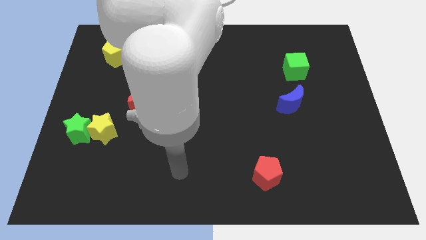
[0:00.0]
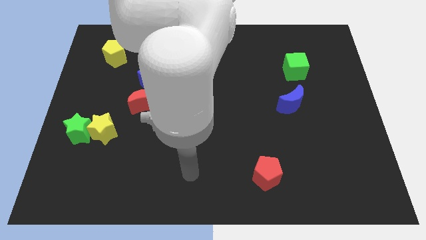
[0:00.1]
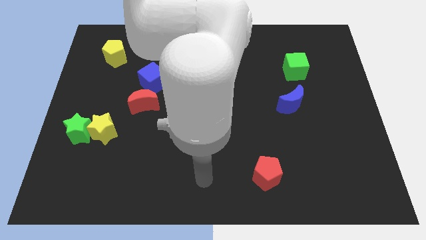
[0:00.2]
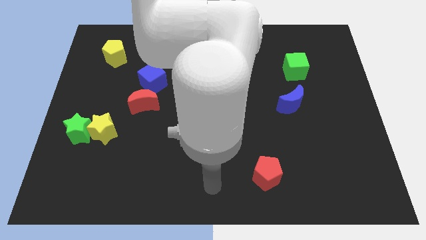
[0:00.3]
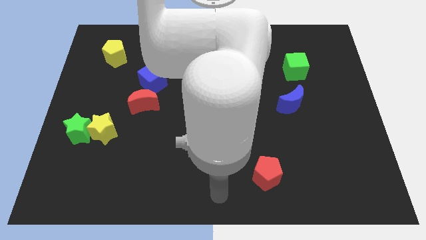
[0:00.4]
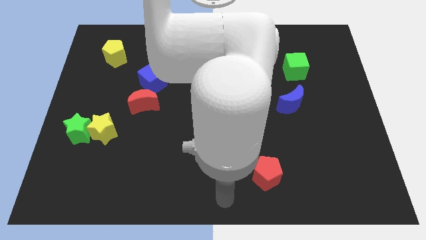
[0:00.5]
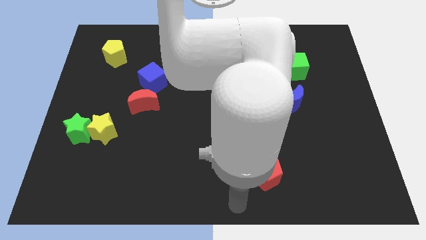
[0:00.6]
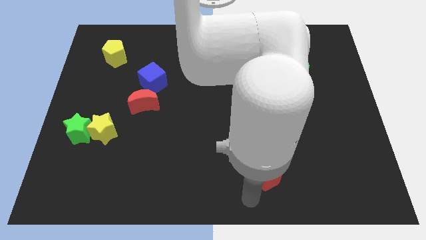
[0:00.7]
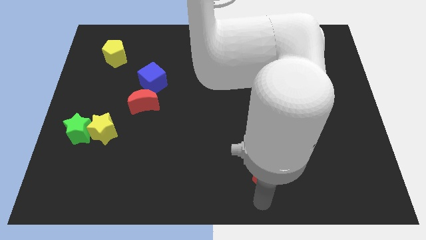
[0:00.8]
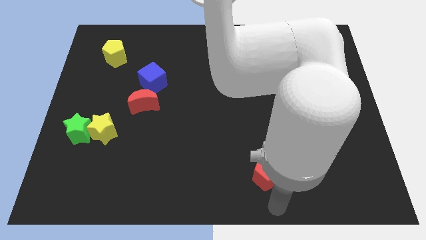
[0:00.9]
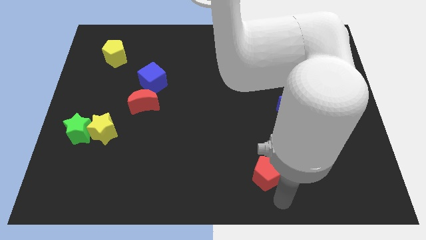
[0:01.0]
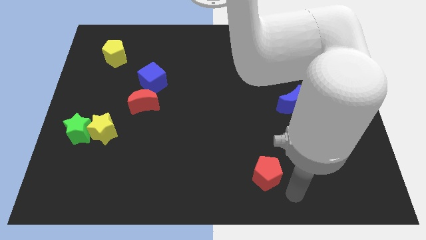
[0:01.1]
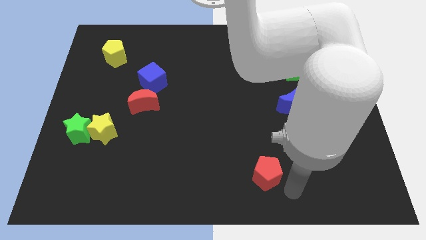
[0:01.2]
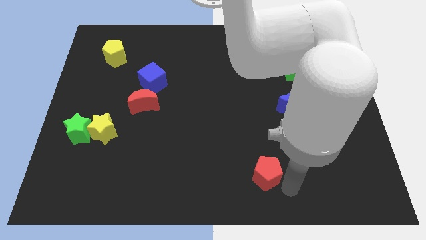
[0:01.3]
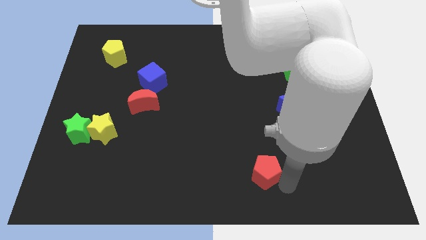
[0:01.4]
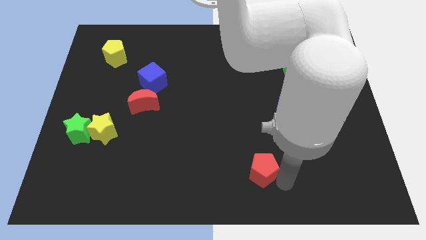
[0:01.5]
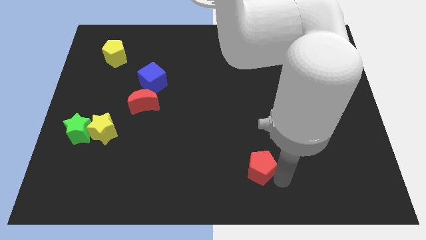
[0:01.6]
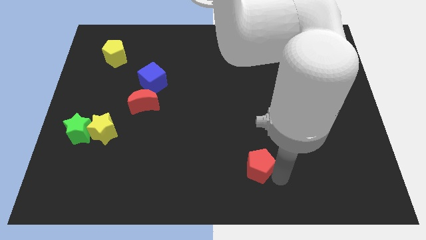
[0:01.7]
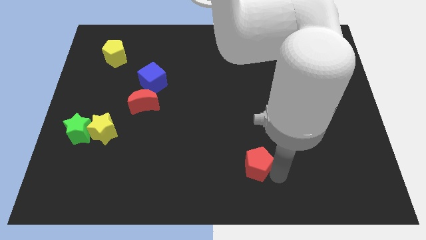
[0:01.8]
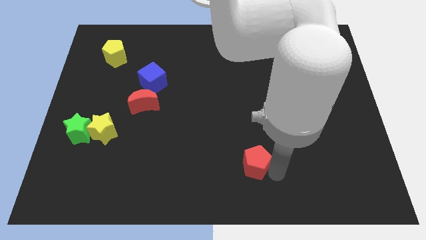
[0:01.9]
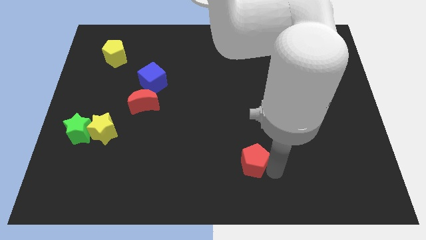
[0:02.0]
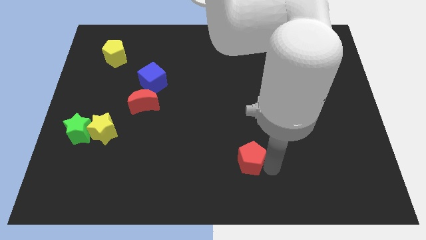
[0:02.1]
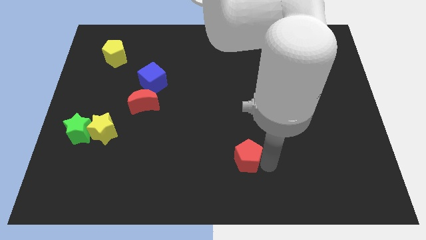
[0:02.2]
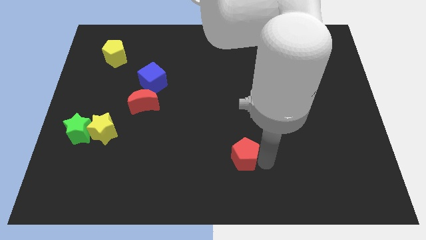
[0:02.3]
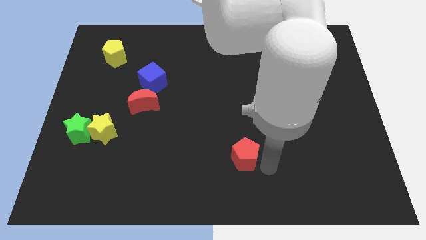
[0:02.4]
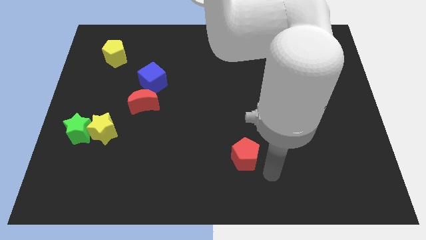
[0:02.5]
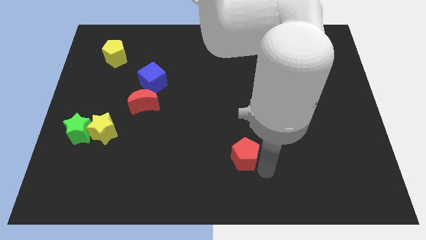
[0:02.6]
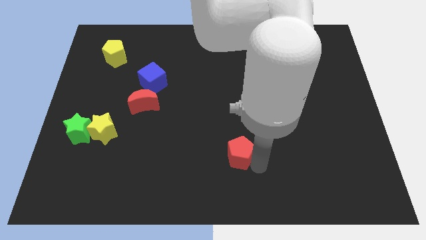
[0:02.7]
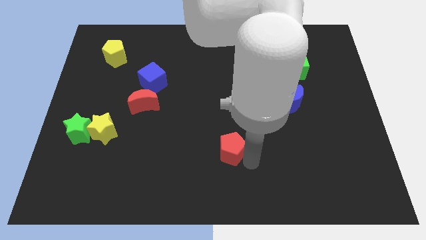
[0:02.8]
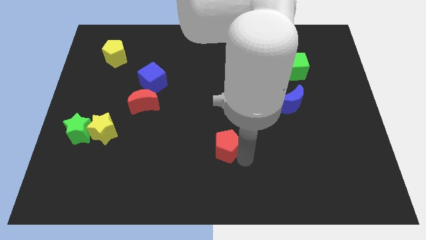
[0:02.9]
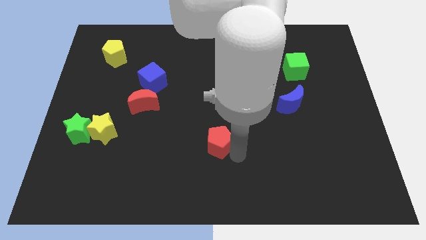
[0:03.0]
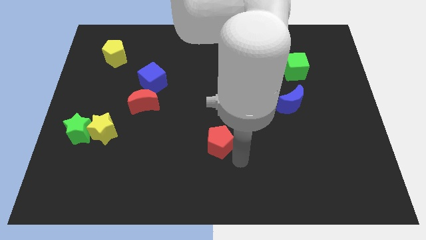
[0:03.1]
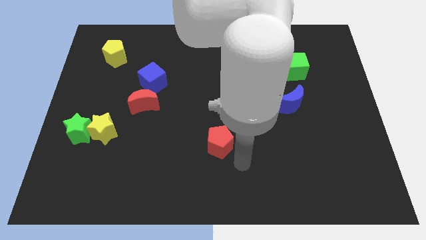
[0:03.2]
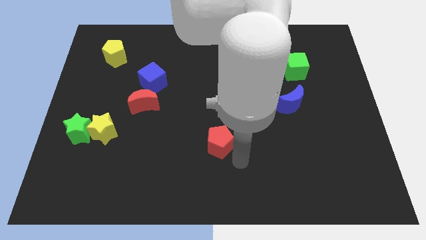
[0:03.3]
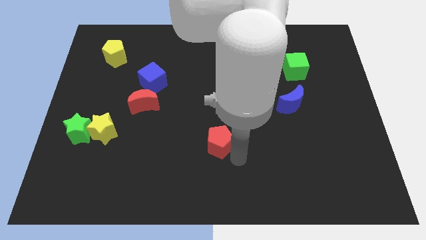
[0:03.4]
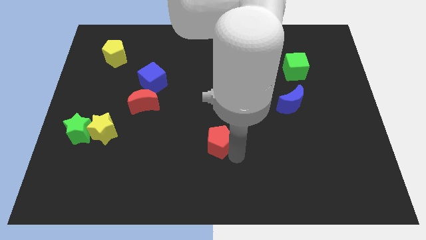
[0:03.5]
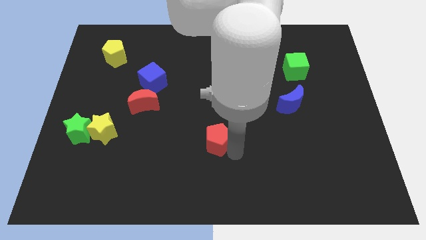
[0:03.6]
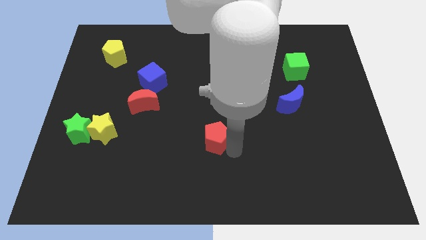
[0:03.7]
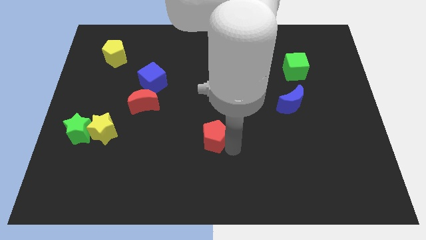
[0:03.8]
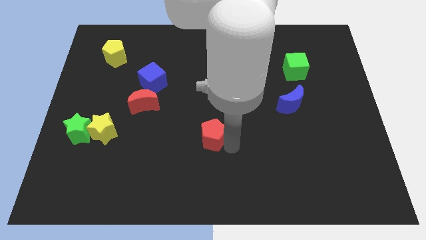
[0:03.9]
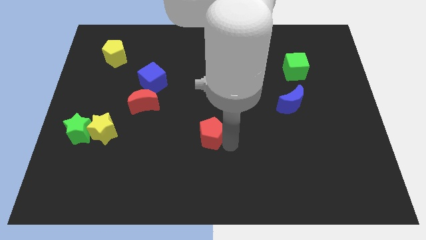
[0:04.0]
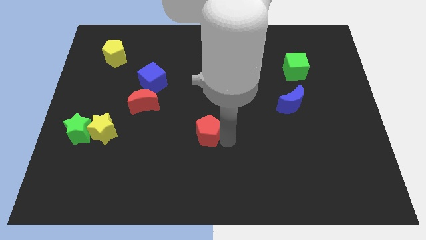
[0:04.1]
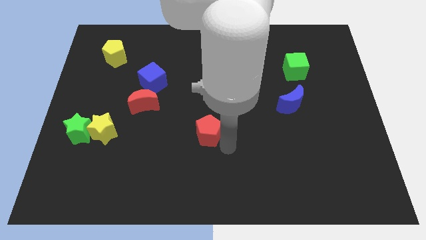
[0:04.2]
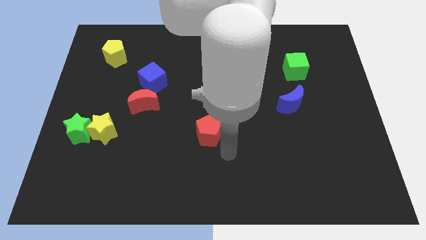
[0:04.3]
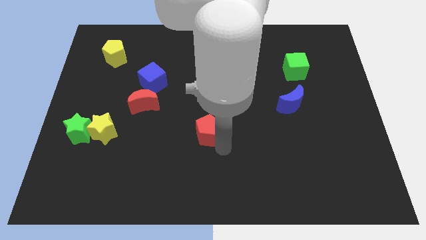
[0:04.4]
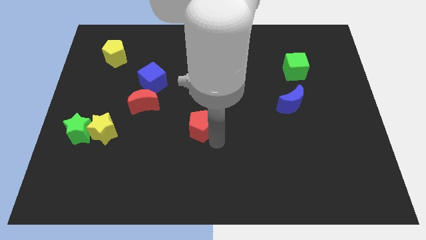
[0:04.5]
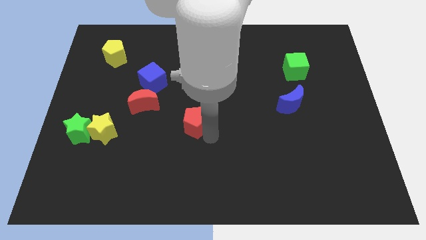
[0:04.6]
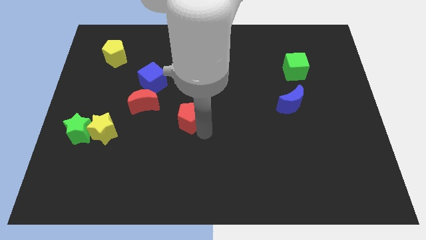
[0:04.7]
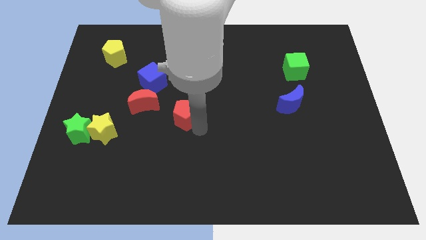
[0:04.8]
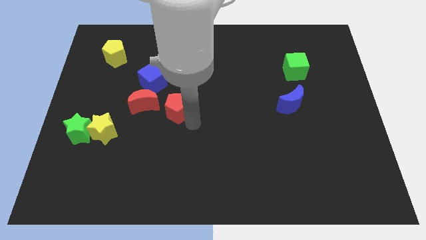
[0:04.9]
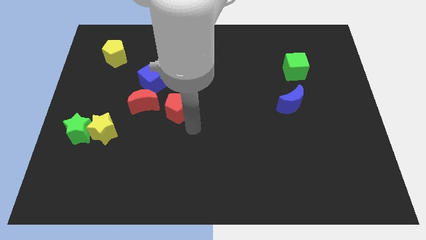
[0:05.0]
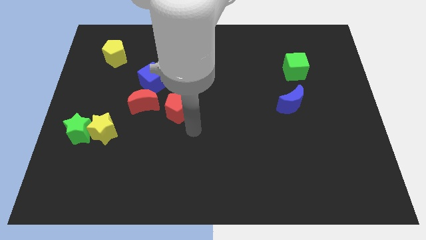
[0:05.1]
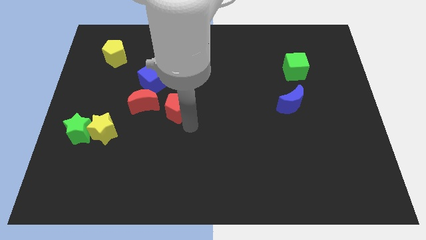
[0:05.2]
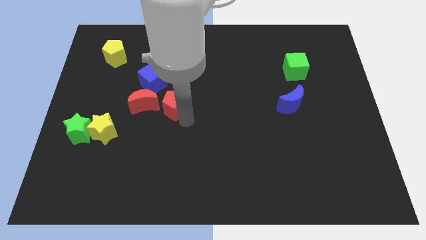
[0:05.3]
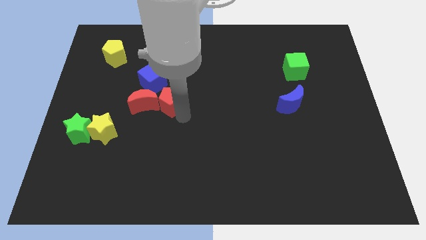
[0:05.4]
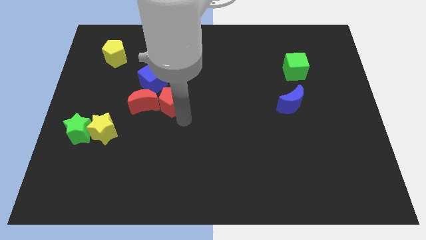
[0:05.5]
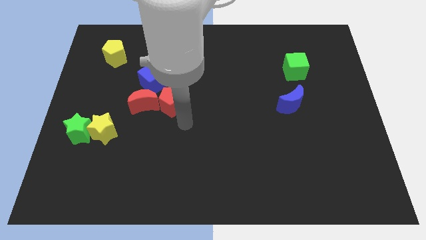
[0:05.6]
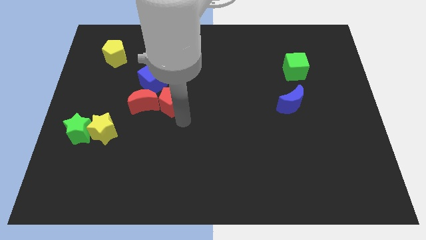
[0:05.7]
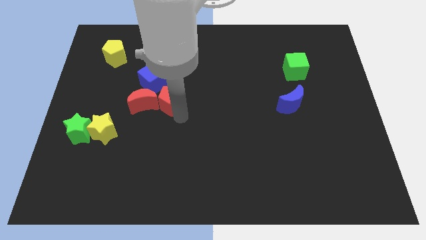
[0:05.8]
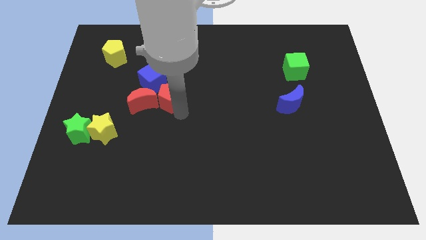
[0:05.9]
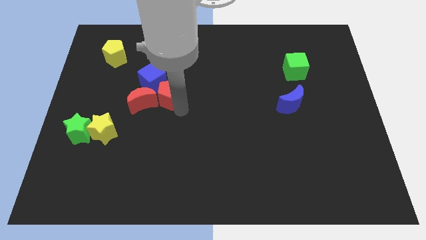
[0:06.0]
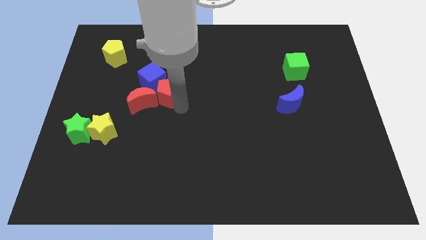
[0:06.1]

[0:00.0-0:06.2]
put the red pentagon close to the blue cube

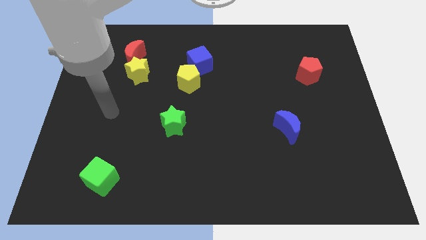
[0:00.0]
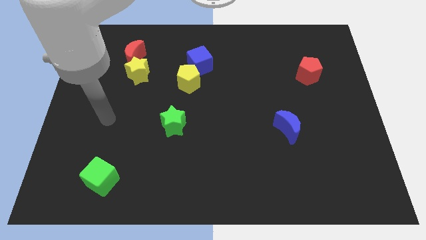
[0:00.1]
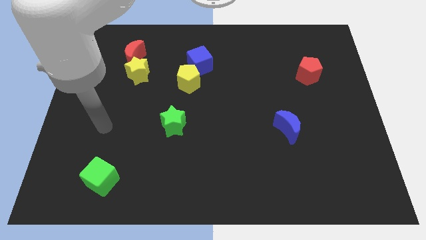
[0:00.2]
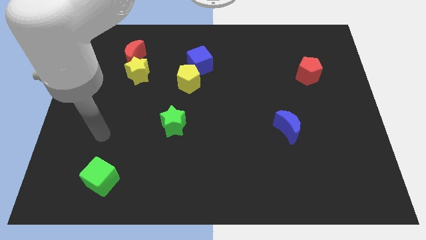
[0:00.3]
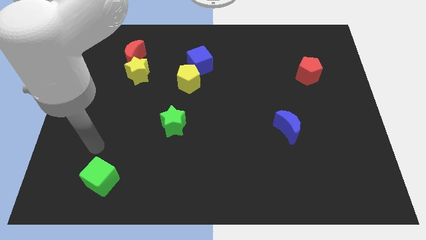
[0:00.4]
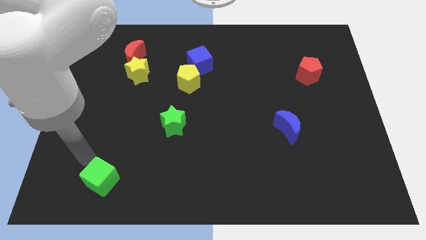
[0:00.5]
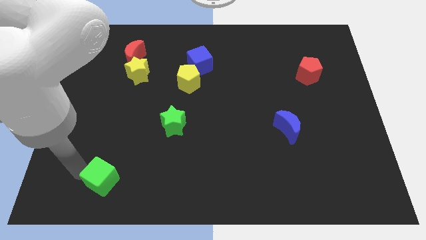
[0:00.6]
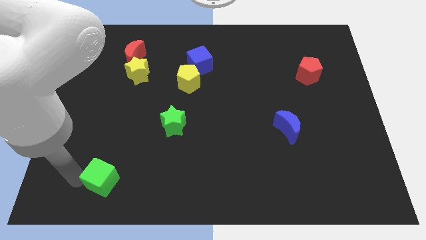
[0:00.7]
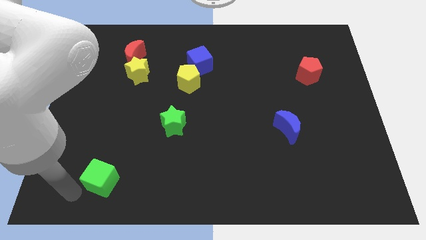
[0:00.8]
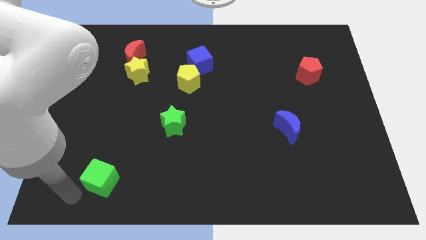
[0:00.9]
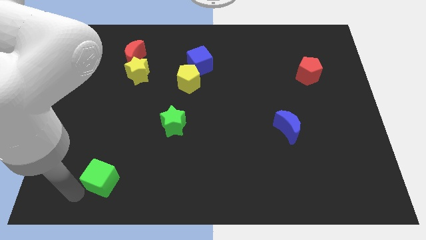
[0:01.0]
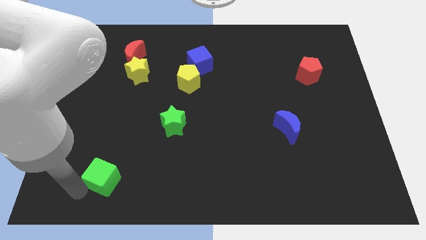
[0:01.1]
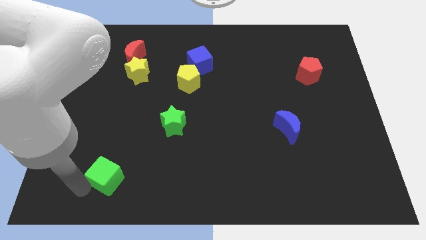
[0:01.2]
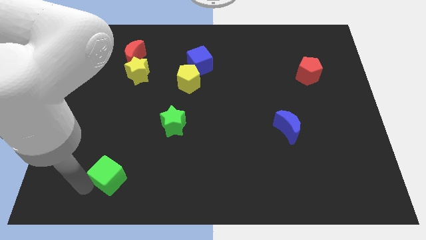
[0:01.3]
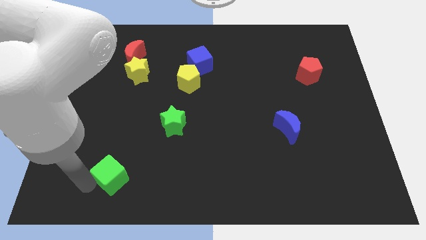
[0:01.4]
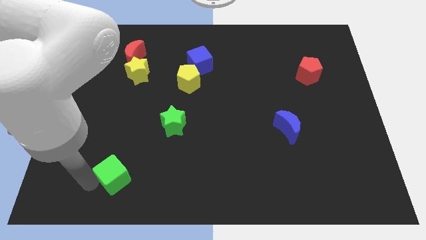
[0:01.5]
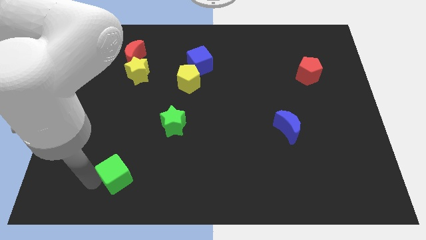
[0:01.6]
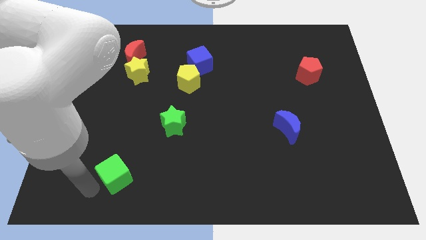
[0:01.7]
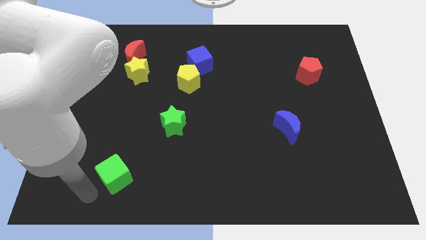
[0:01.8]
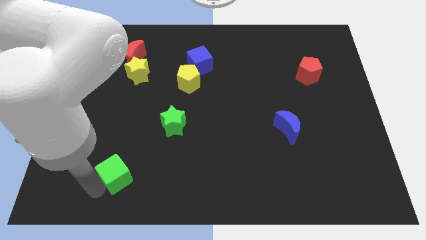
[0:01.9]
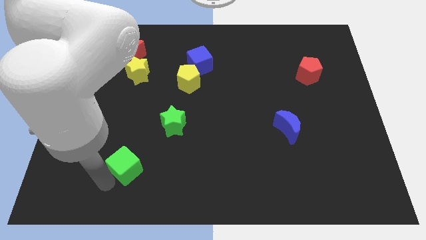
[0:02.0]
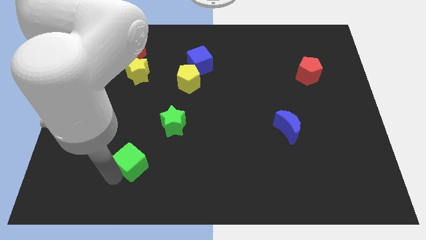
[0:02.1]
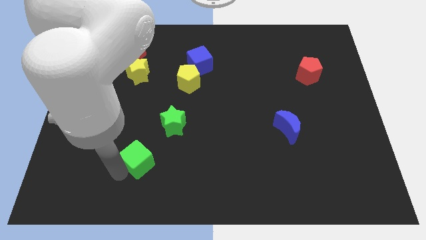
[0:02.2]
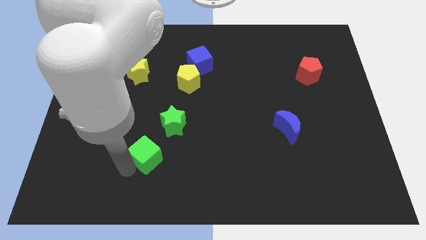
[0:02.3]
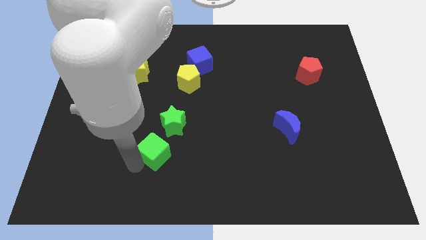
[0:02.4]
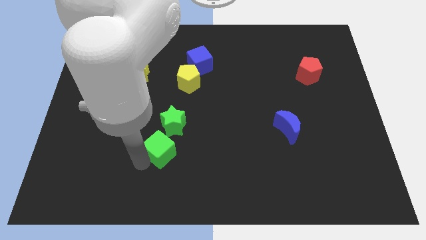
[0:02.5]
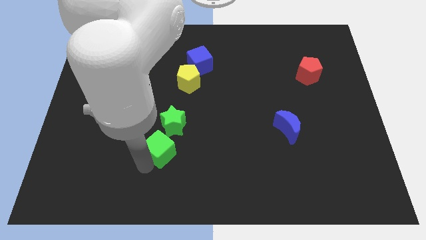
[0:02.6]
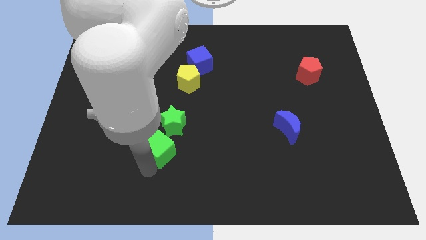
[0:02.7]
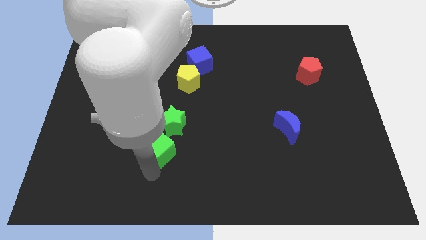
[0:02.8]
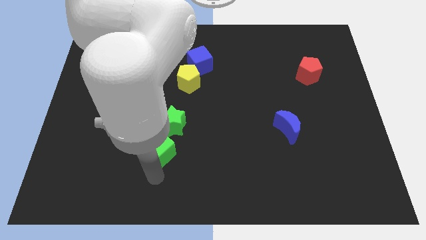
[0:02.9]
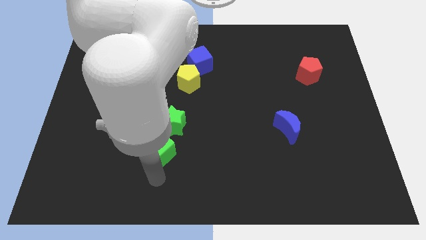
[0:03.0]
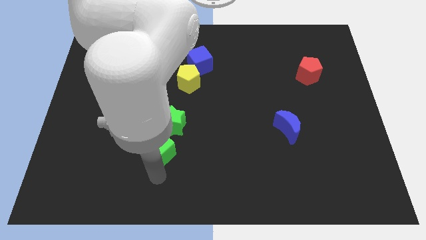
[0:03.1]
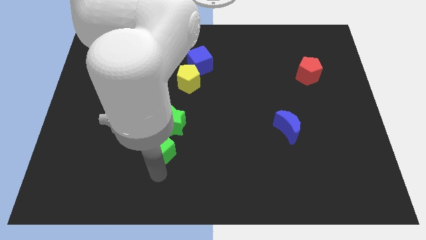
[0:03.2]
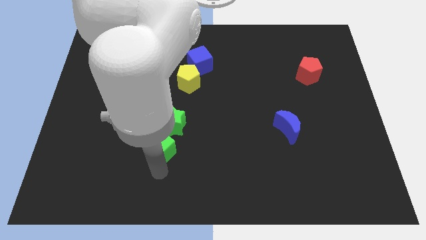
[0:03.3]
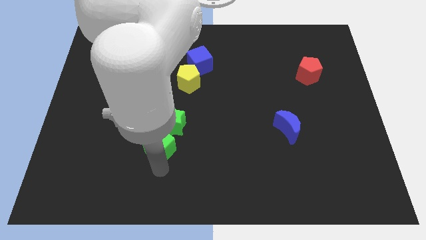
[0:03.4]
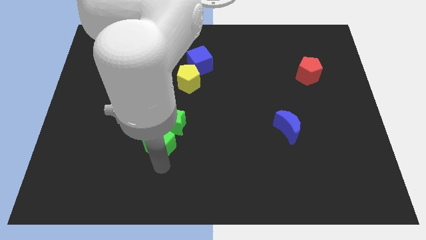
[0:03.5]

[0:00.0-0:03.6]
push the green cube towards the green star
